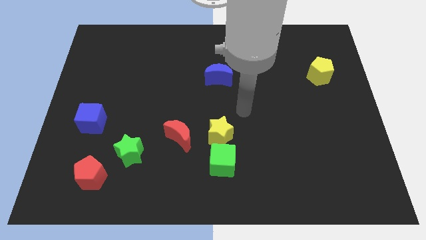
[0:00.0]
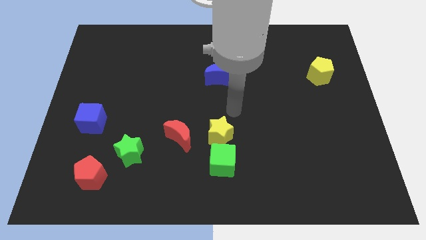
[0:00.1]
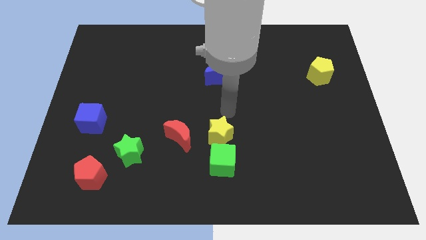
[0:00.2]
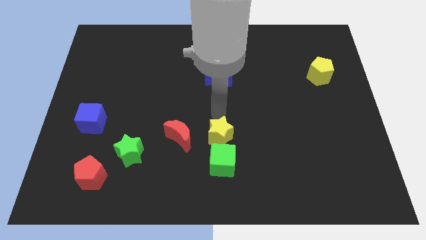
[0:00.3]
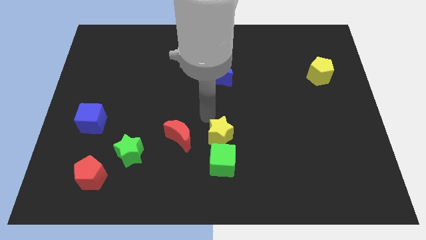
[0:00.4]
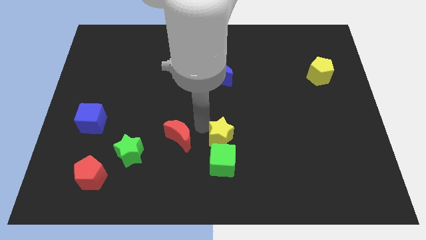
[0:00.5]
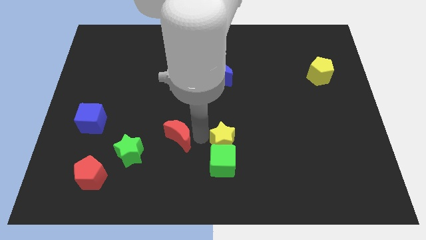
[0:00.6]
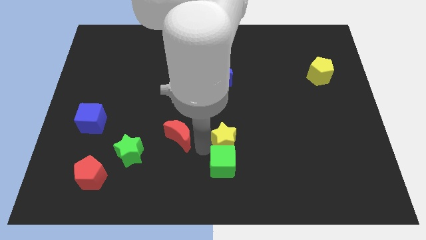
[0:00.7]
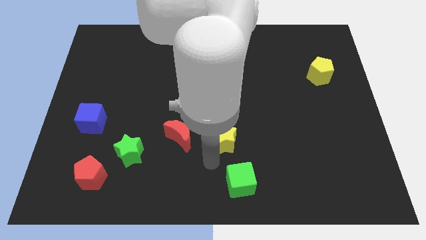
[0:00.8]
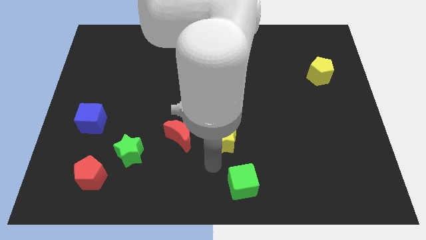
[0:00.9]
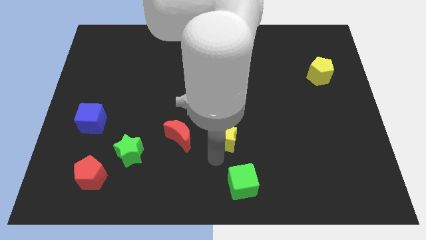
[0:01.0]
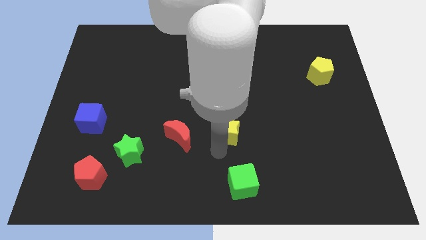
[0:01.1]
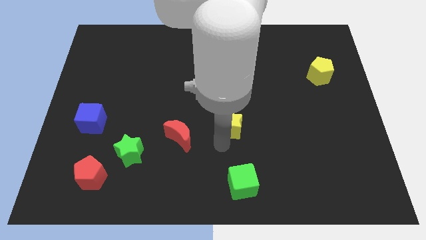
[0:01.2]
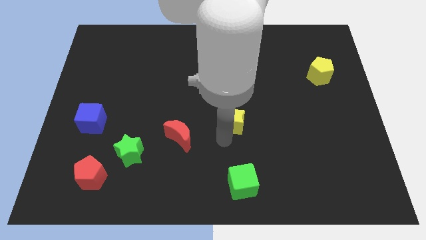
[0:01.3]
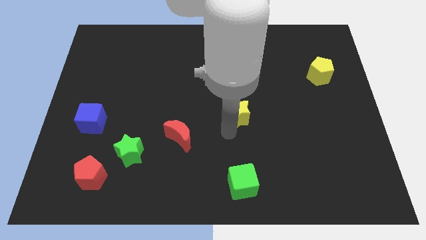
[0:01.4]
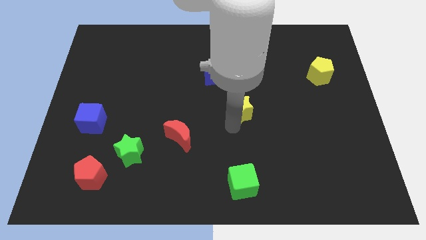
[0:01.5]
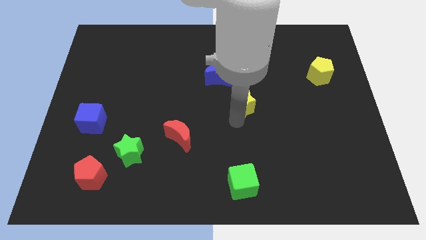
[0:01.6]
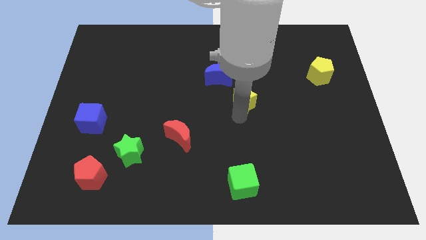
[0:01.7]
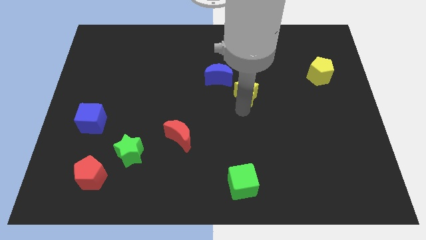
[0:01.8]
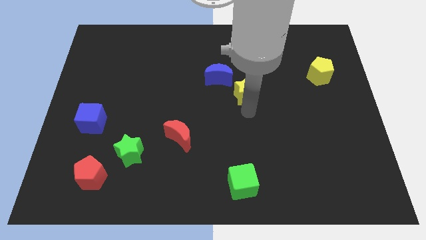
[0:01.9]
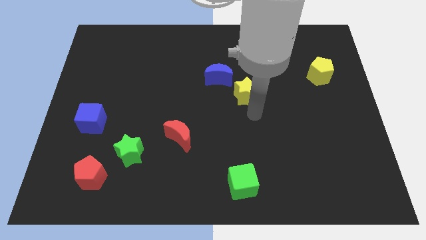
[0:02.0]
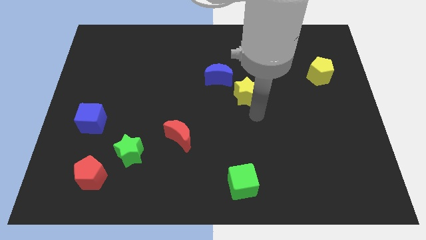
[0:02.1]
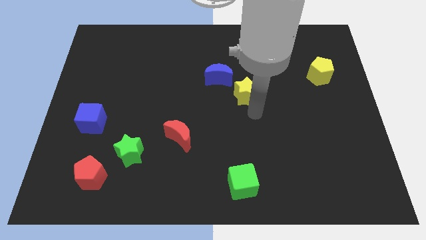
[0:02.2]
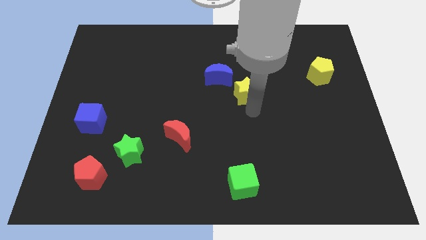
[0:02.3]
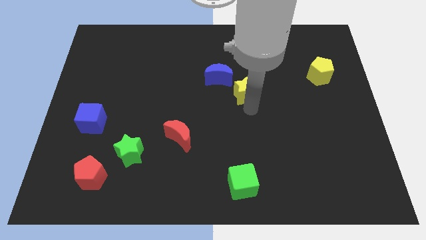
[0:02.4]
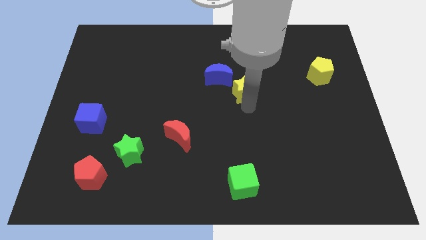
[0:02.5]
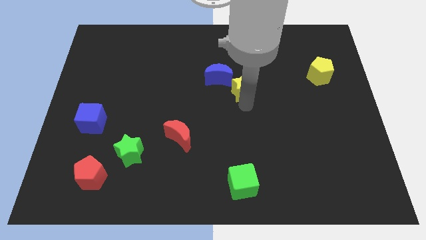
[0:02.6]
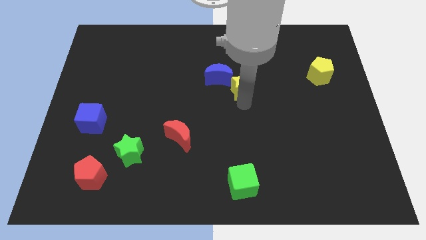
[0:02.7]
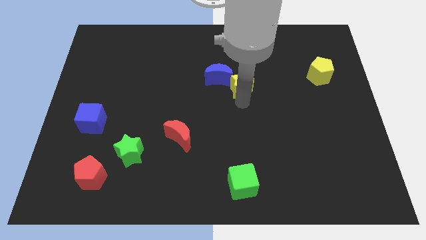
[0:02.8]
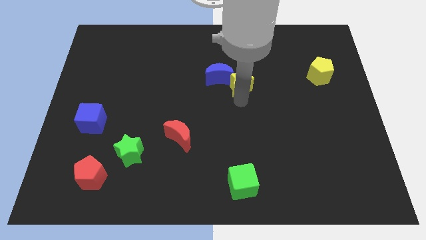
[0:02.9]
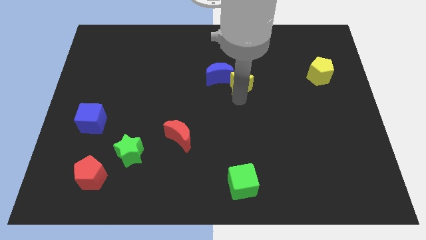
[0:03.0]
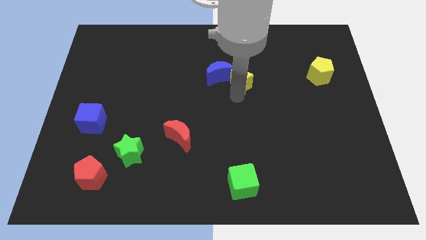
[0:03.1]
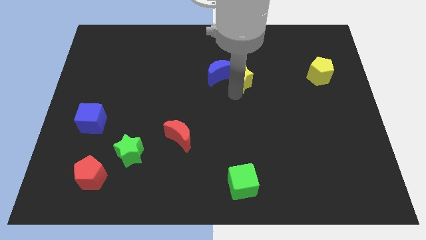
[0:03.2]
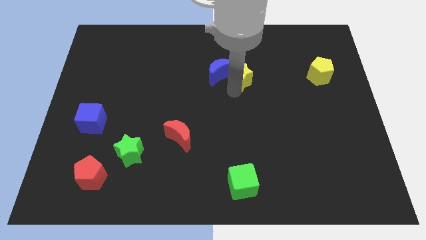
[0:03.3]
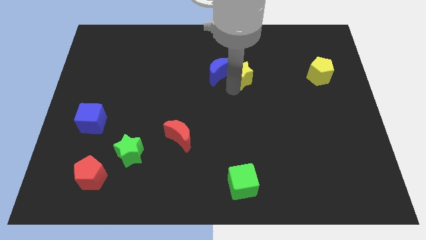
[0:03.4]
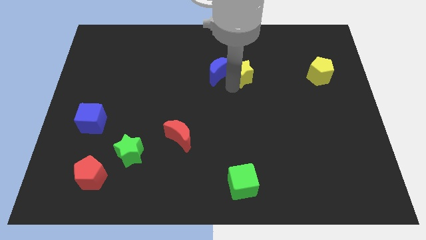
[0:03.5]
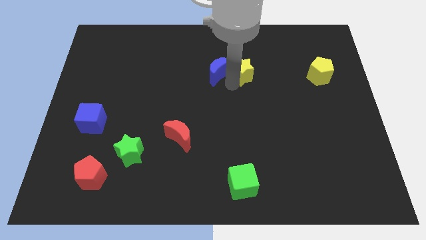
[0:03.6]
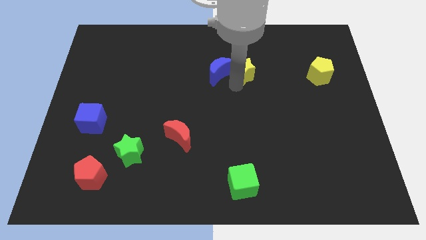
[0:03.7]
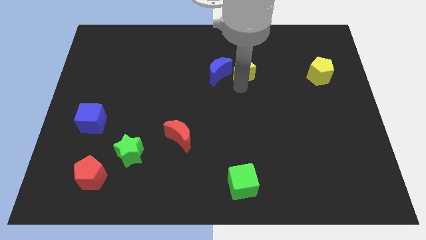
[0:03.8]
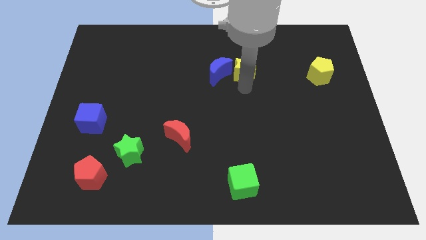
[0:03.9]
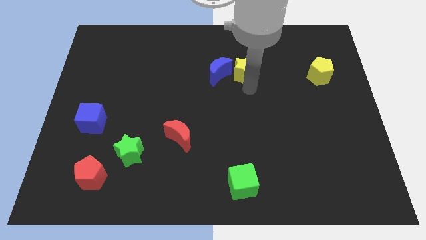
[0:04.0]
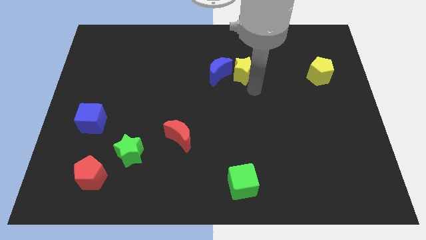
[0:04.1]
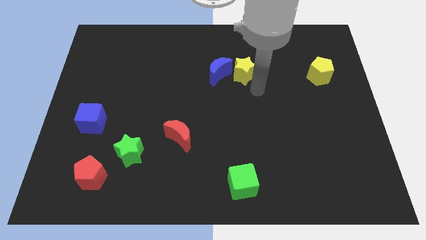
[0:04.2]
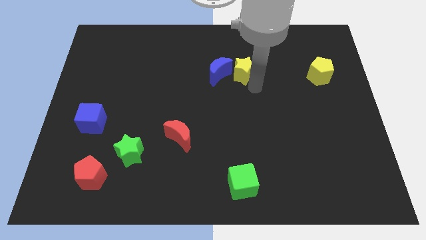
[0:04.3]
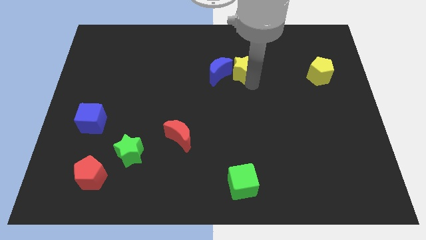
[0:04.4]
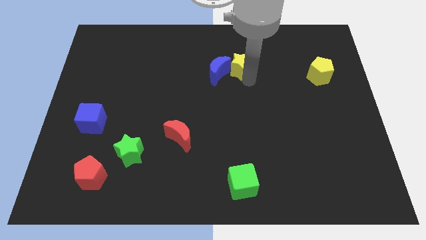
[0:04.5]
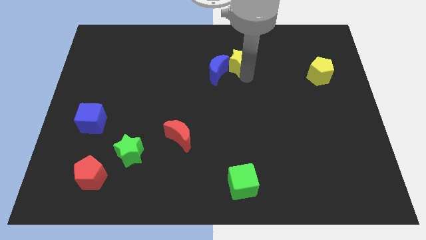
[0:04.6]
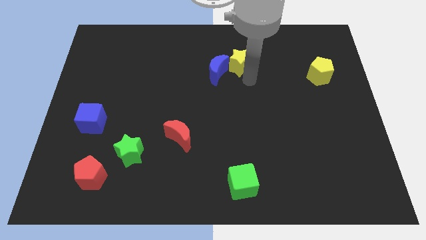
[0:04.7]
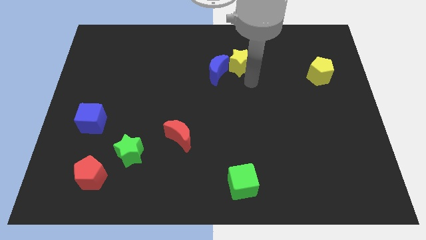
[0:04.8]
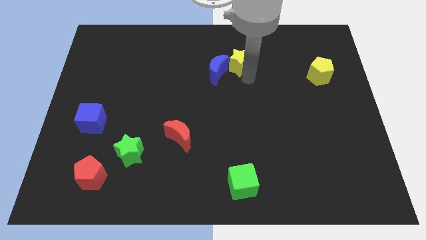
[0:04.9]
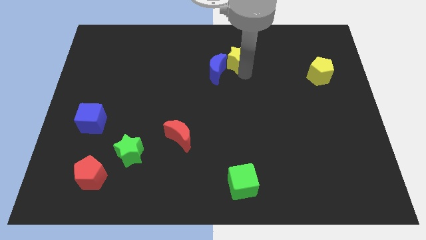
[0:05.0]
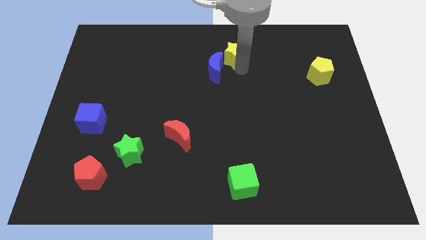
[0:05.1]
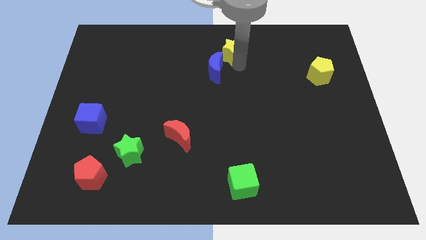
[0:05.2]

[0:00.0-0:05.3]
push the yellow star to the top

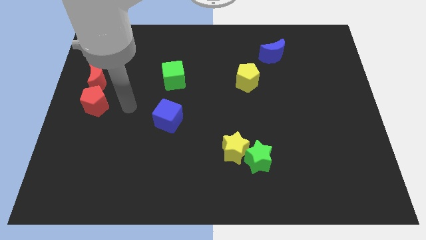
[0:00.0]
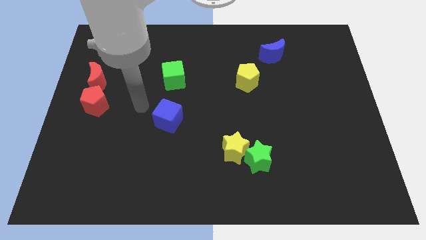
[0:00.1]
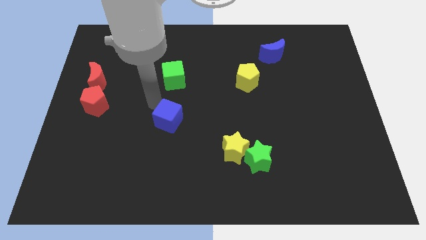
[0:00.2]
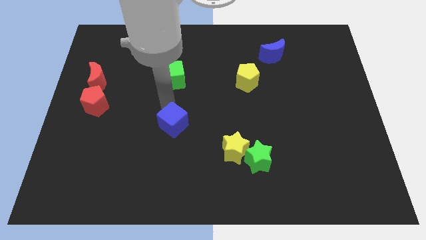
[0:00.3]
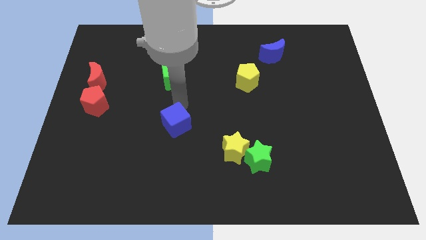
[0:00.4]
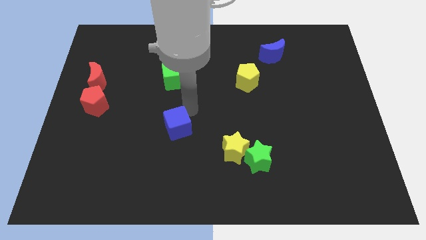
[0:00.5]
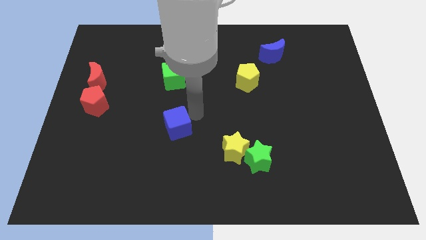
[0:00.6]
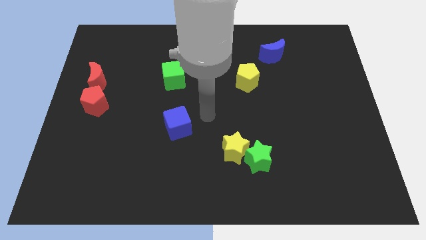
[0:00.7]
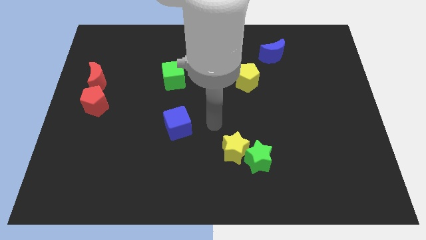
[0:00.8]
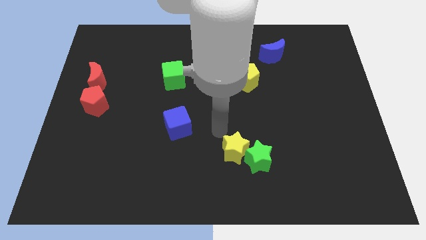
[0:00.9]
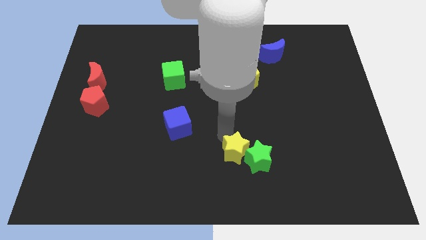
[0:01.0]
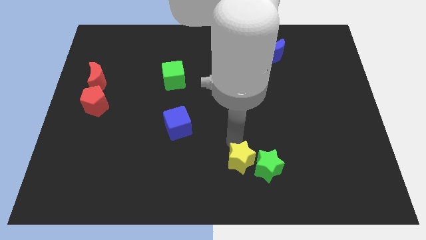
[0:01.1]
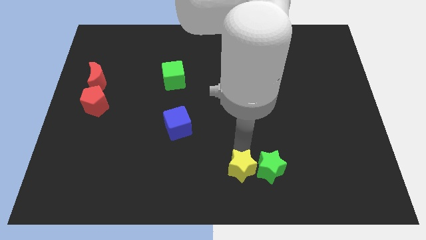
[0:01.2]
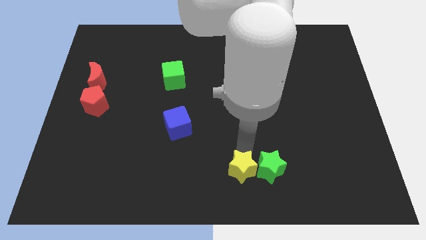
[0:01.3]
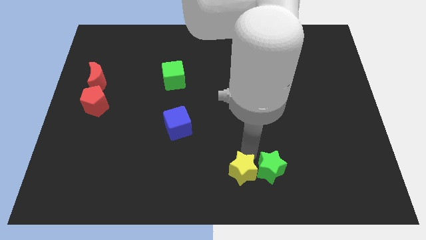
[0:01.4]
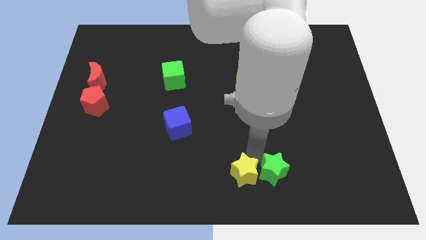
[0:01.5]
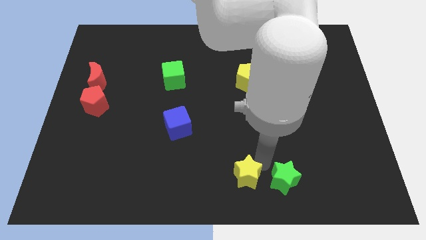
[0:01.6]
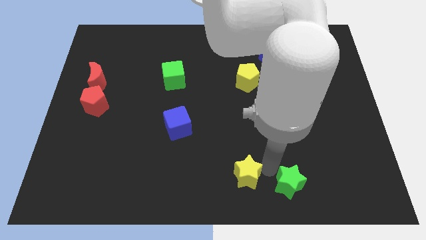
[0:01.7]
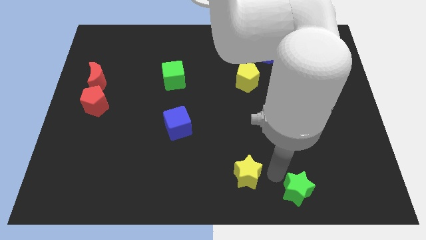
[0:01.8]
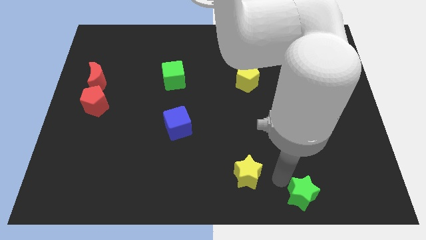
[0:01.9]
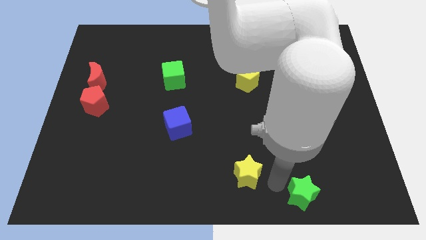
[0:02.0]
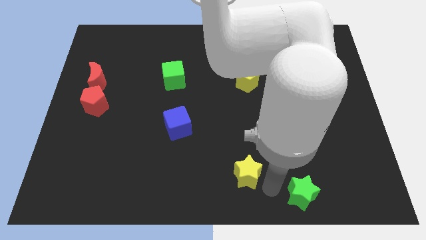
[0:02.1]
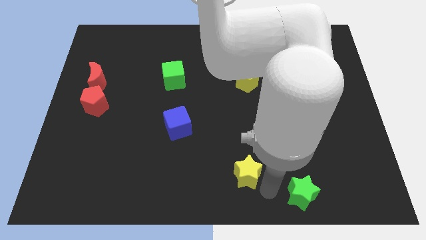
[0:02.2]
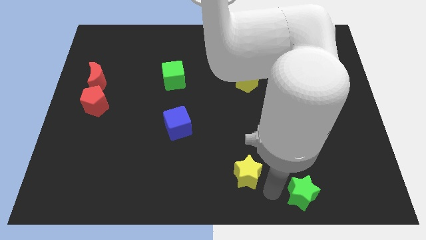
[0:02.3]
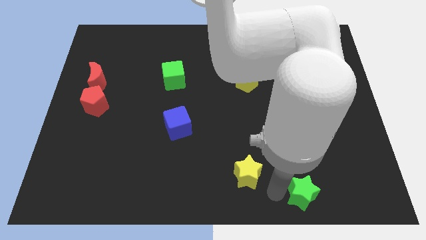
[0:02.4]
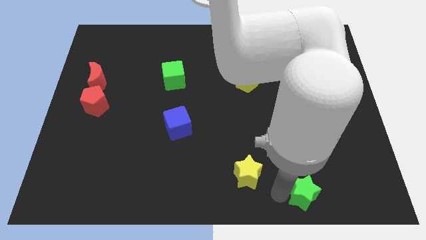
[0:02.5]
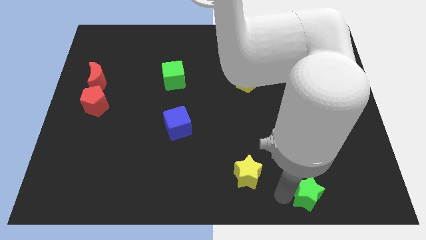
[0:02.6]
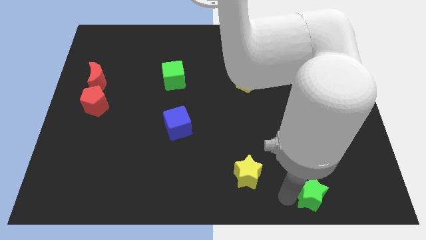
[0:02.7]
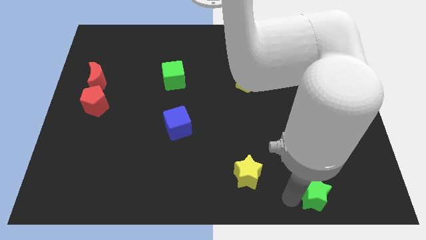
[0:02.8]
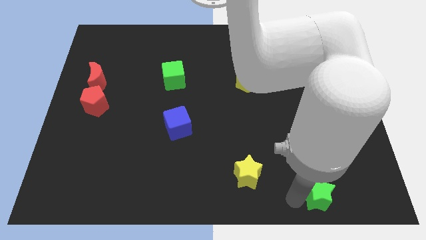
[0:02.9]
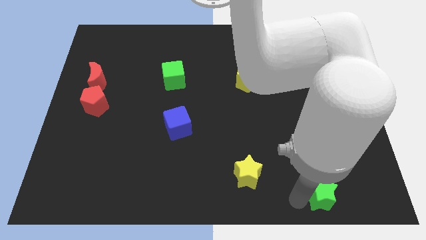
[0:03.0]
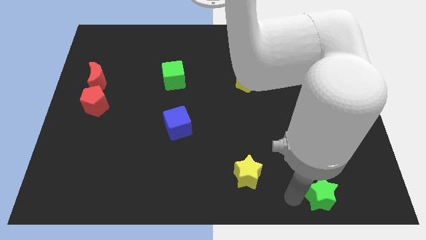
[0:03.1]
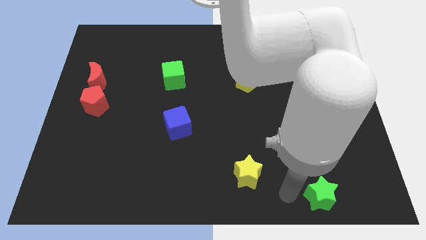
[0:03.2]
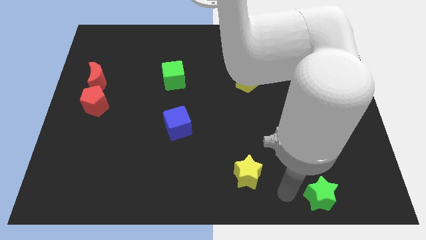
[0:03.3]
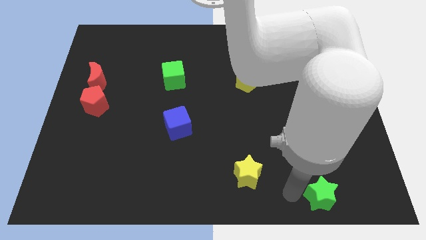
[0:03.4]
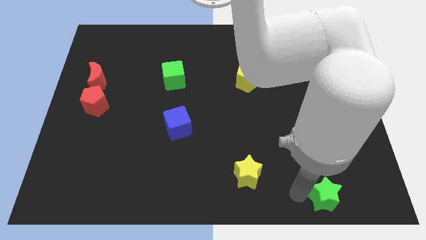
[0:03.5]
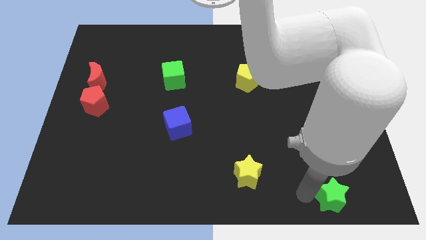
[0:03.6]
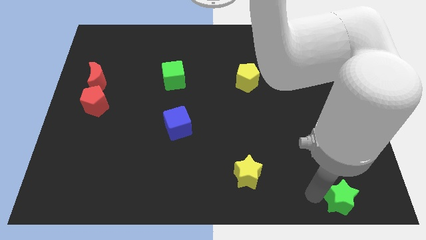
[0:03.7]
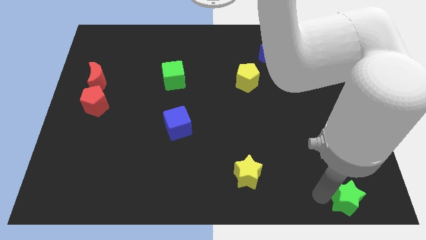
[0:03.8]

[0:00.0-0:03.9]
push the green star to the bottom right
